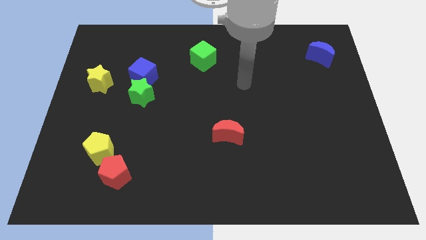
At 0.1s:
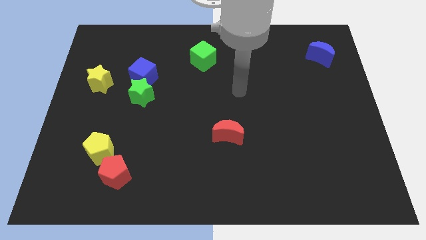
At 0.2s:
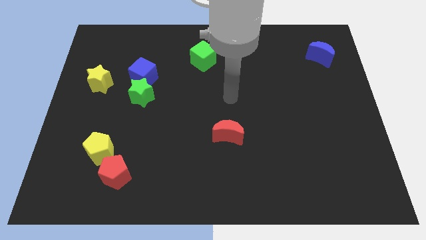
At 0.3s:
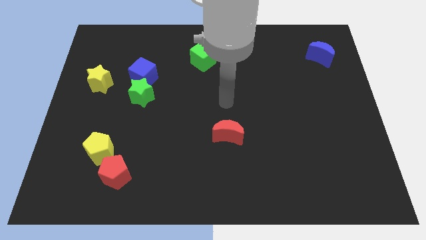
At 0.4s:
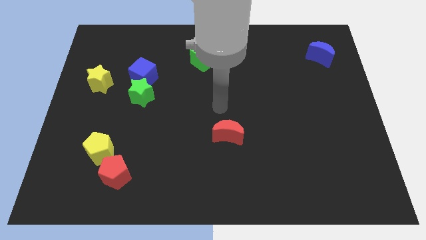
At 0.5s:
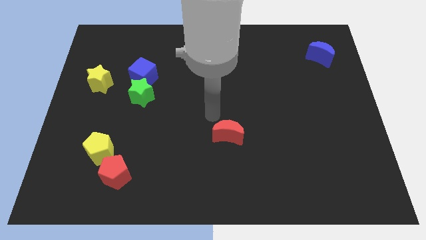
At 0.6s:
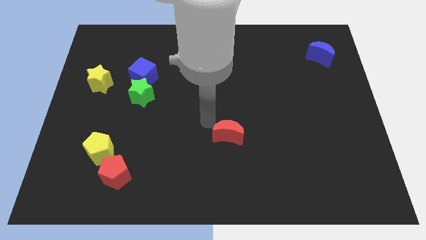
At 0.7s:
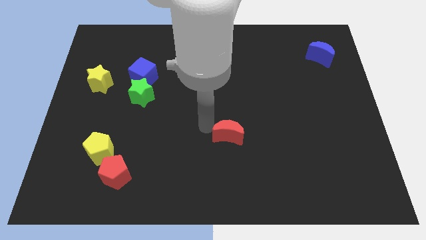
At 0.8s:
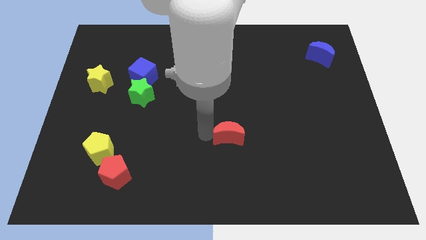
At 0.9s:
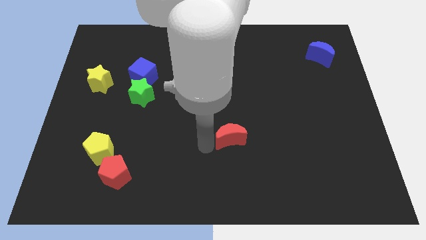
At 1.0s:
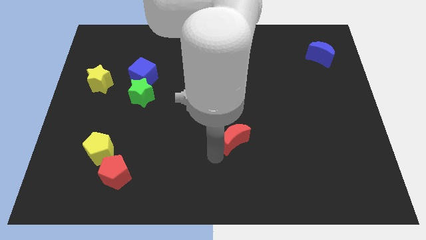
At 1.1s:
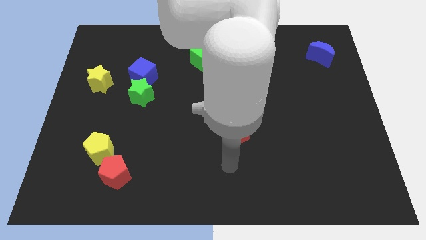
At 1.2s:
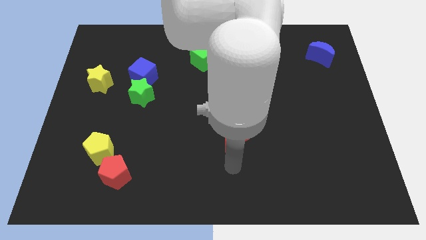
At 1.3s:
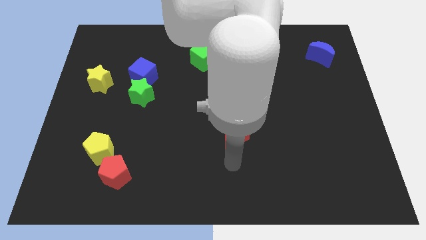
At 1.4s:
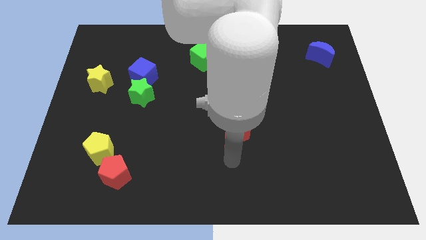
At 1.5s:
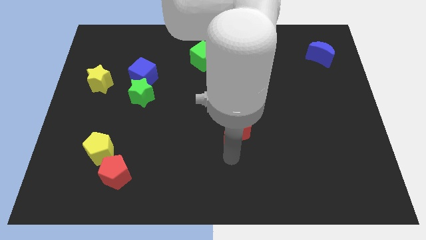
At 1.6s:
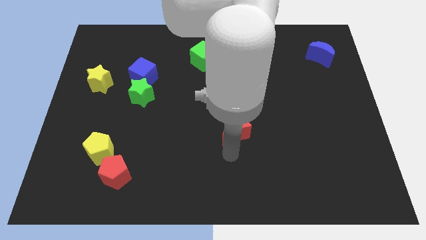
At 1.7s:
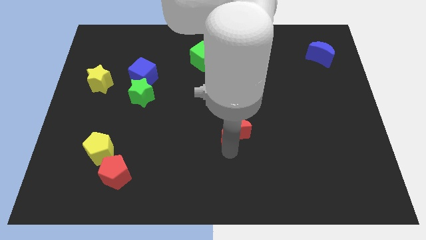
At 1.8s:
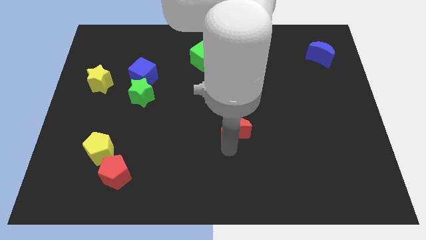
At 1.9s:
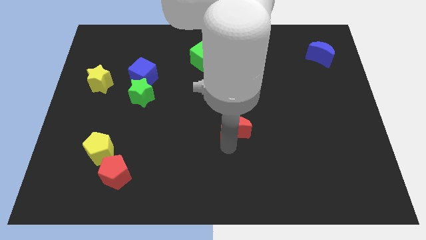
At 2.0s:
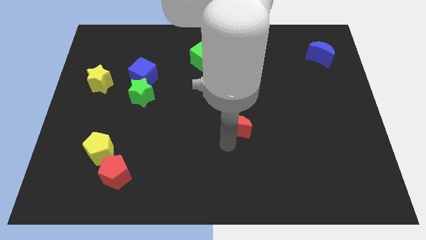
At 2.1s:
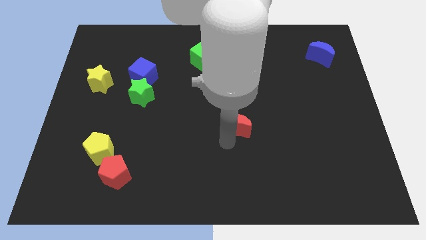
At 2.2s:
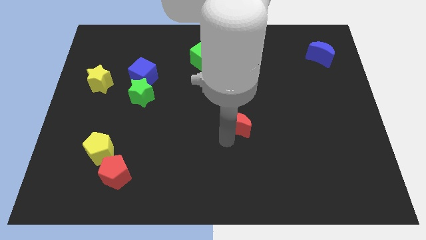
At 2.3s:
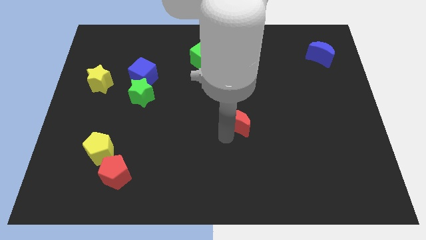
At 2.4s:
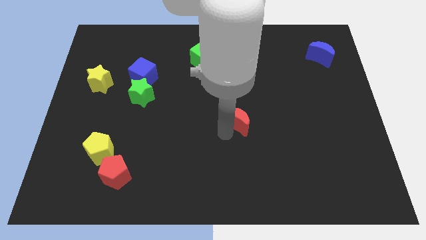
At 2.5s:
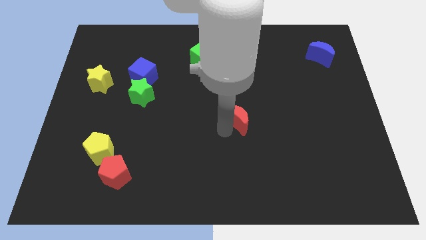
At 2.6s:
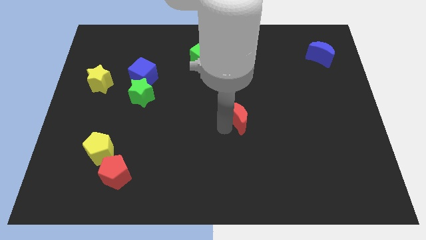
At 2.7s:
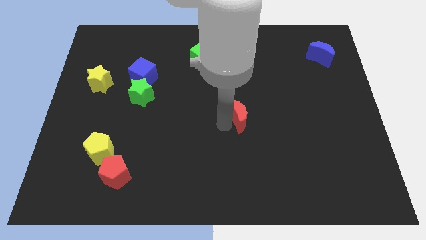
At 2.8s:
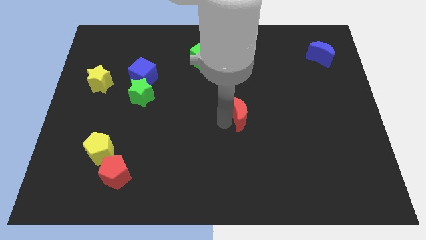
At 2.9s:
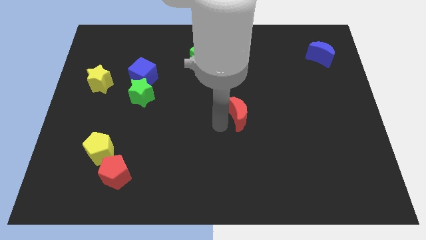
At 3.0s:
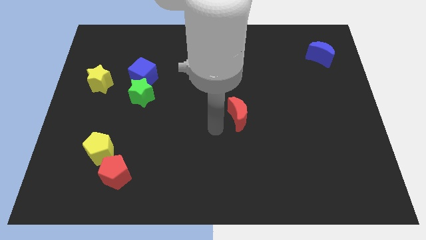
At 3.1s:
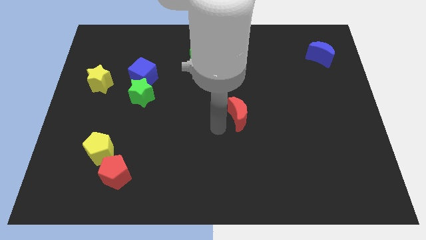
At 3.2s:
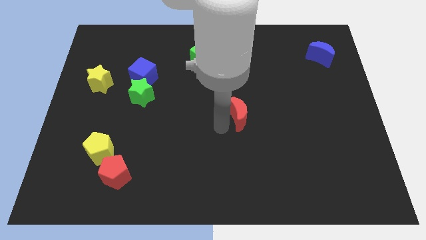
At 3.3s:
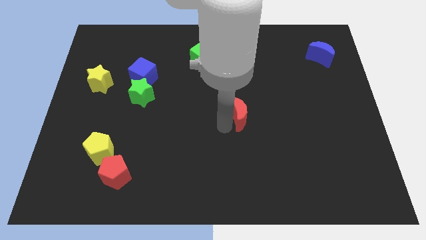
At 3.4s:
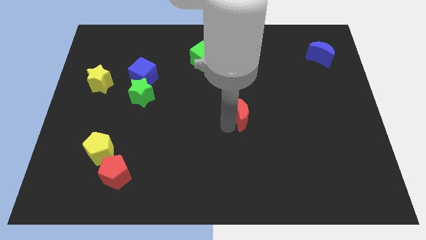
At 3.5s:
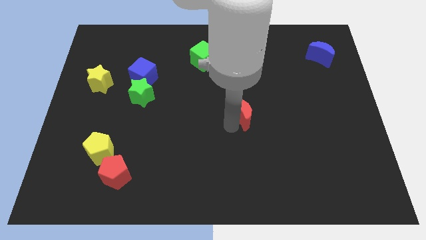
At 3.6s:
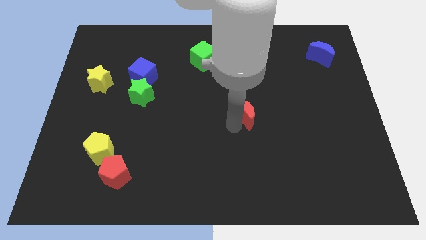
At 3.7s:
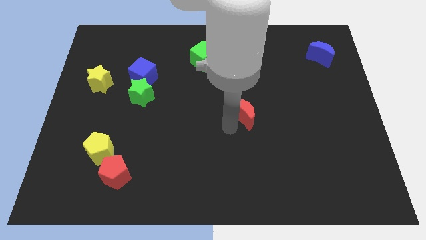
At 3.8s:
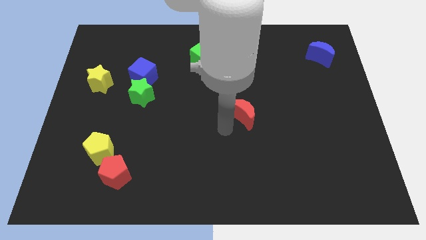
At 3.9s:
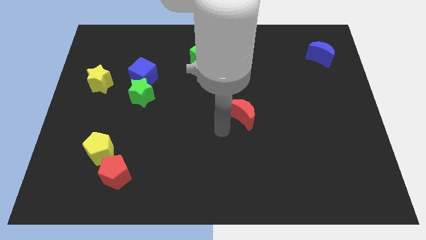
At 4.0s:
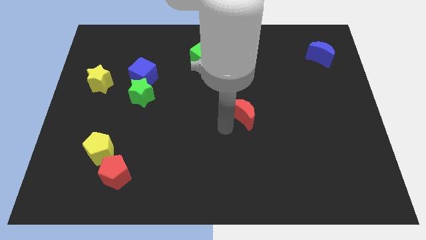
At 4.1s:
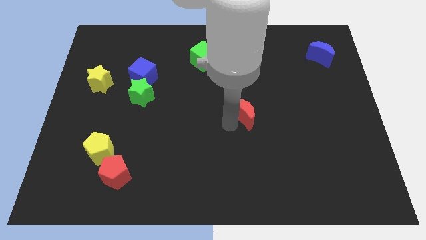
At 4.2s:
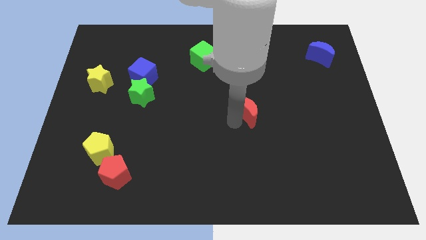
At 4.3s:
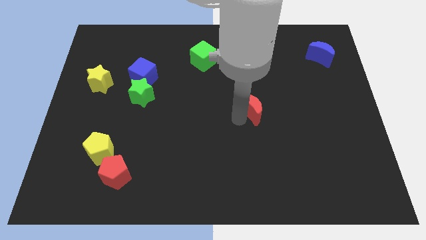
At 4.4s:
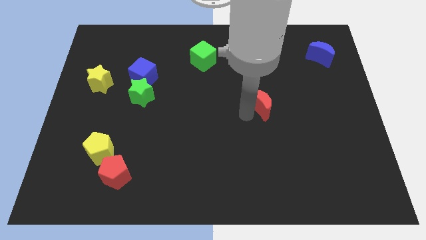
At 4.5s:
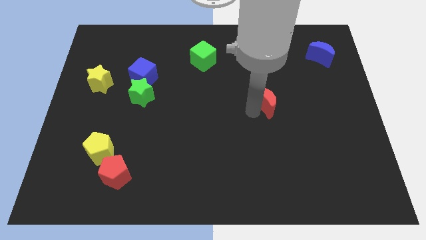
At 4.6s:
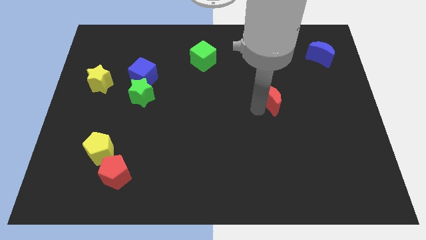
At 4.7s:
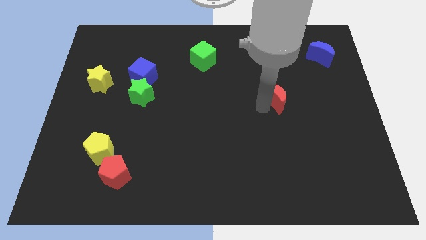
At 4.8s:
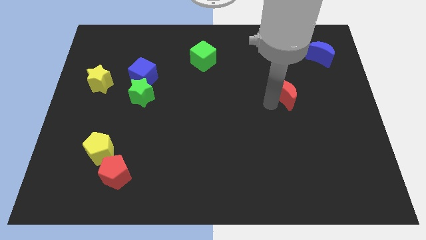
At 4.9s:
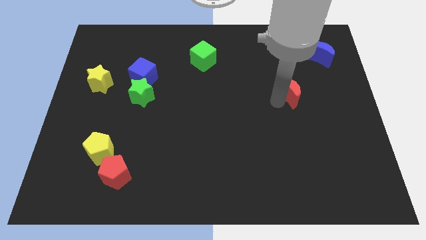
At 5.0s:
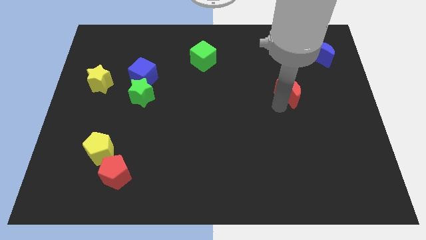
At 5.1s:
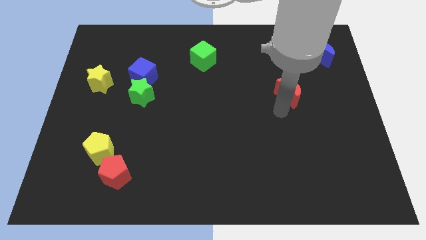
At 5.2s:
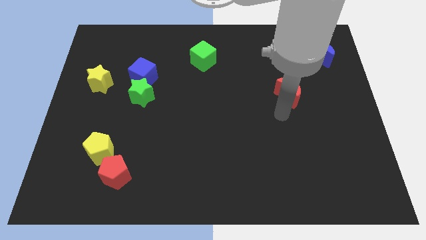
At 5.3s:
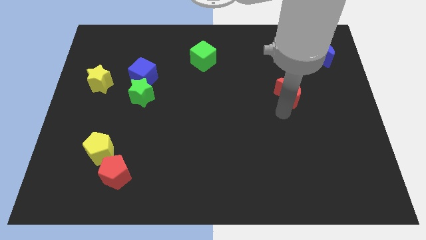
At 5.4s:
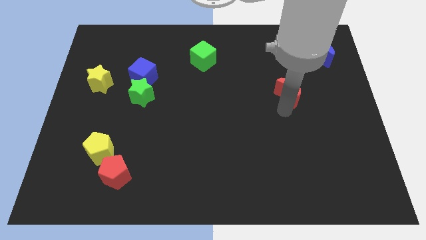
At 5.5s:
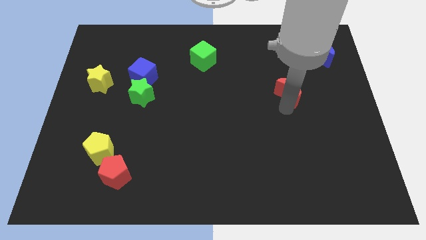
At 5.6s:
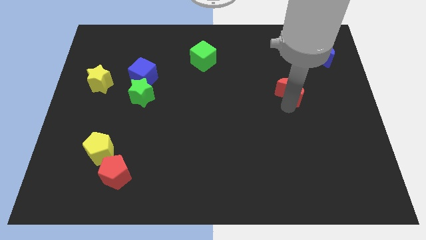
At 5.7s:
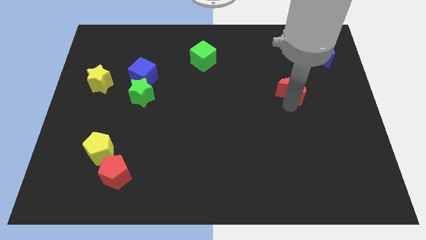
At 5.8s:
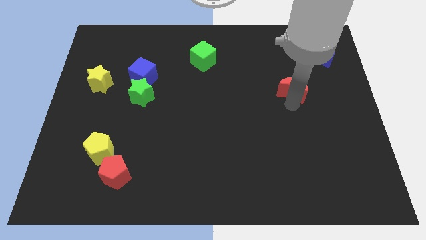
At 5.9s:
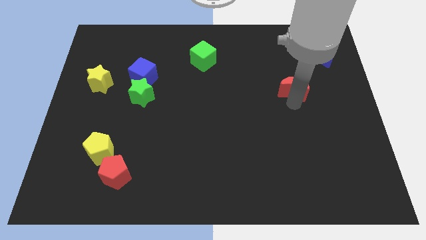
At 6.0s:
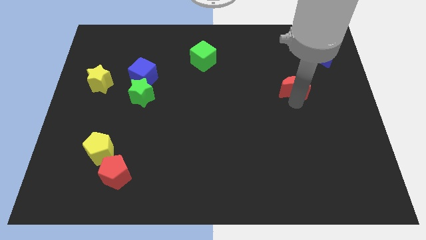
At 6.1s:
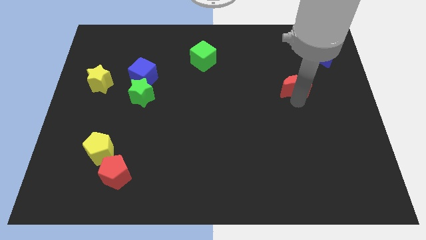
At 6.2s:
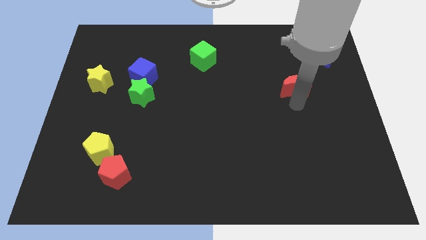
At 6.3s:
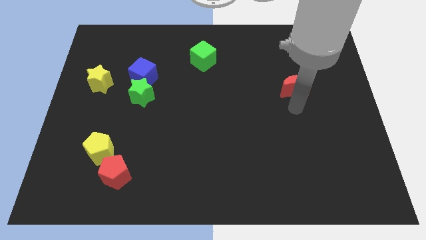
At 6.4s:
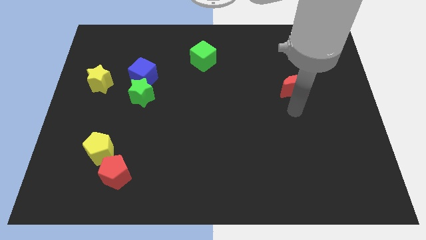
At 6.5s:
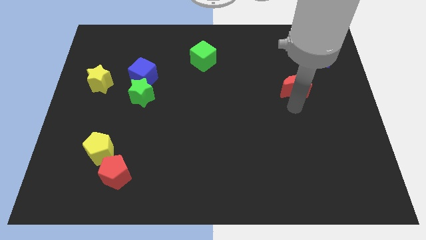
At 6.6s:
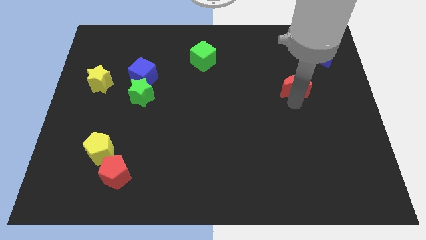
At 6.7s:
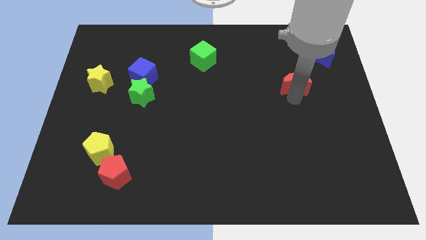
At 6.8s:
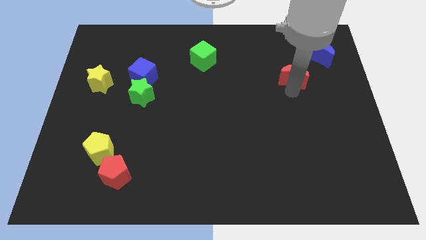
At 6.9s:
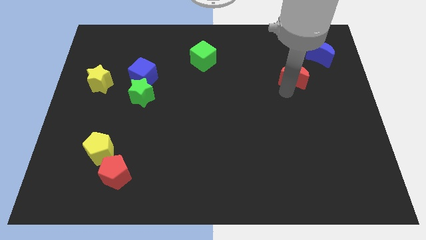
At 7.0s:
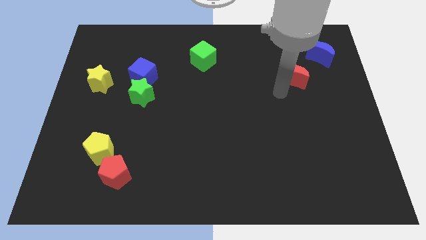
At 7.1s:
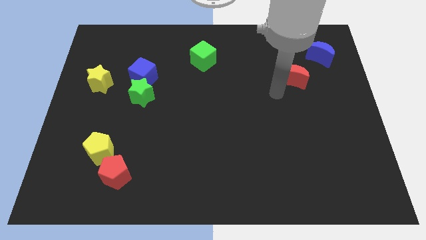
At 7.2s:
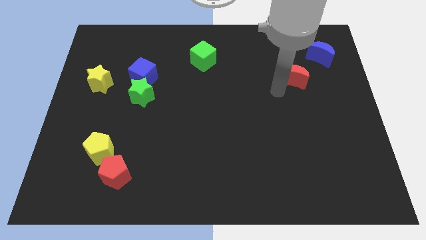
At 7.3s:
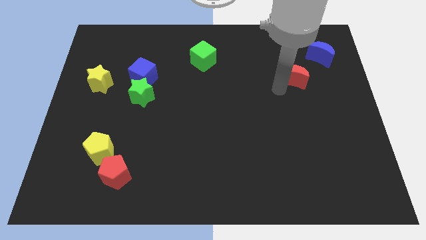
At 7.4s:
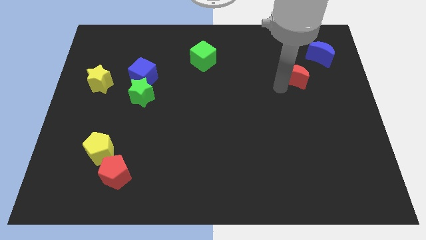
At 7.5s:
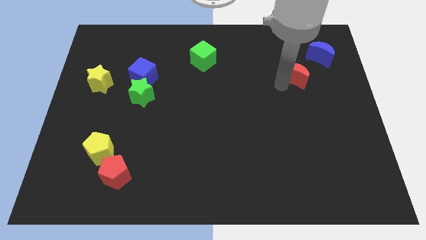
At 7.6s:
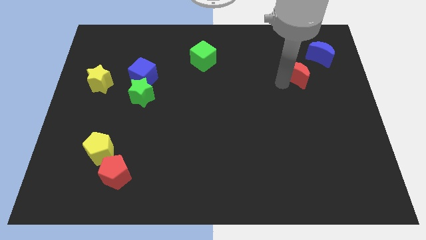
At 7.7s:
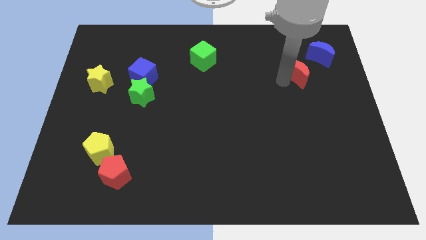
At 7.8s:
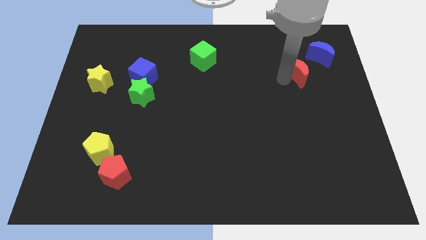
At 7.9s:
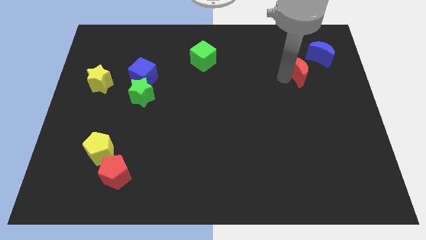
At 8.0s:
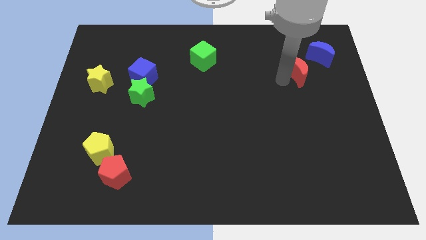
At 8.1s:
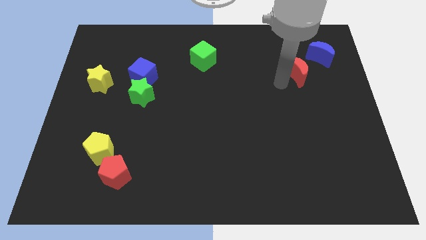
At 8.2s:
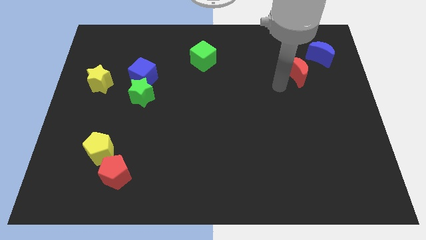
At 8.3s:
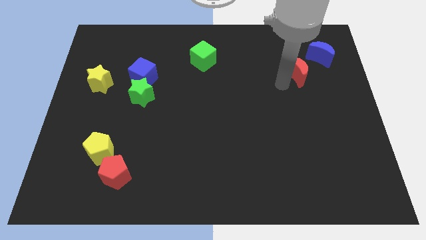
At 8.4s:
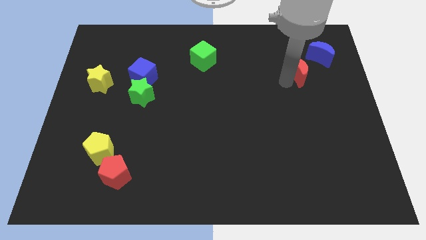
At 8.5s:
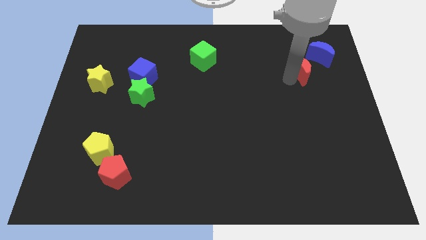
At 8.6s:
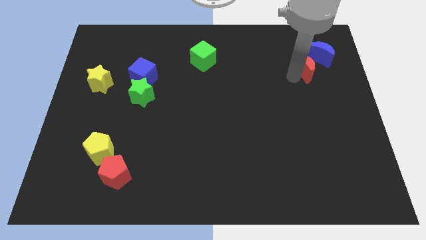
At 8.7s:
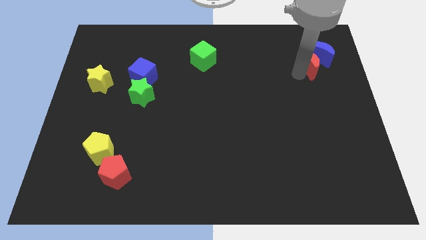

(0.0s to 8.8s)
push the red moon next to the blue moon
